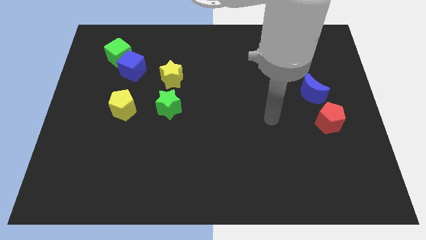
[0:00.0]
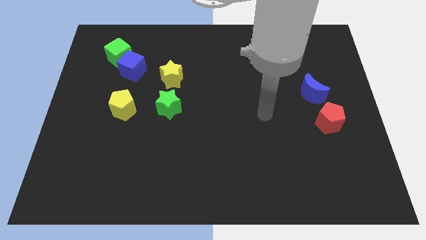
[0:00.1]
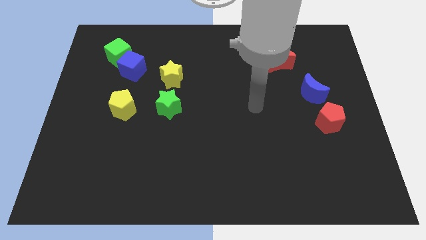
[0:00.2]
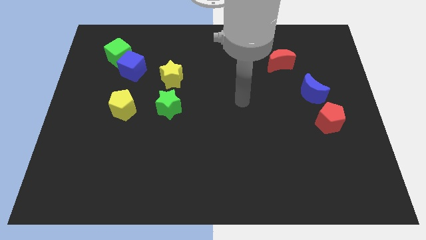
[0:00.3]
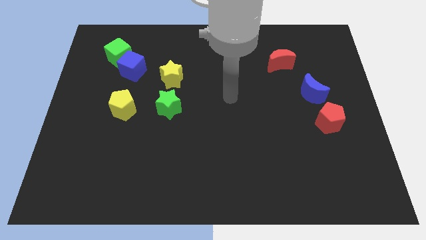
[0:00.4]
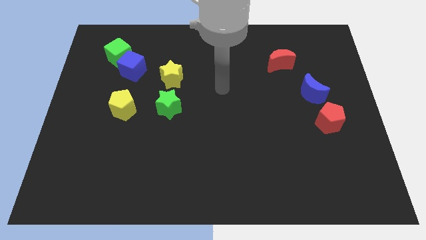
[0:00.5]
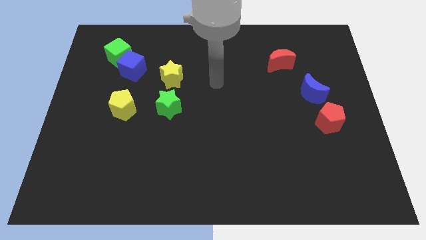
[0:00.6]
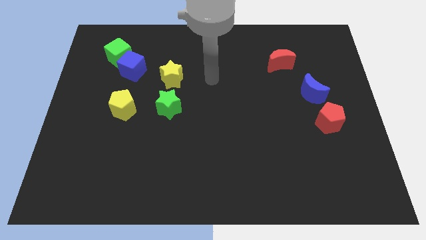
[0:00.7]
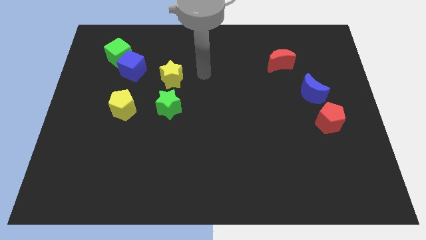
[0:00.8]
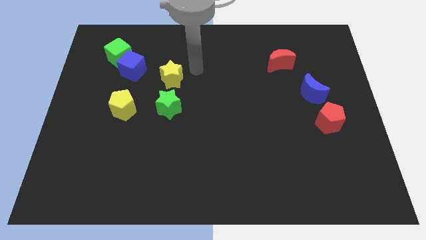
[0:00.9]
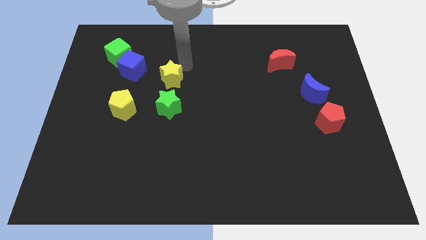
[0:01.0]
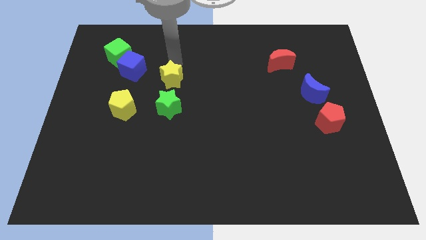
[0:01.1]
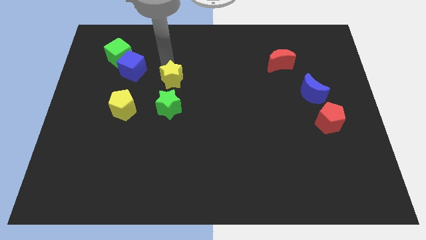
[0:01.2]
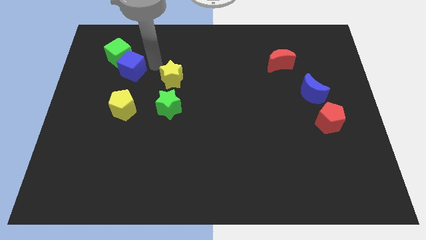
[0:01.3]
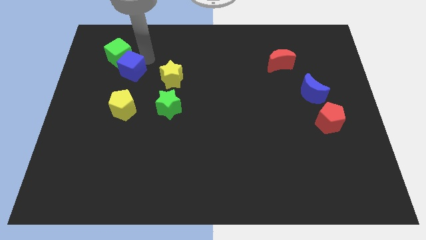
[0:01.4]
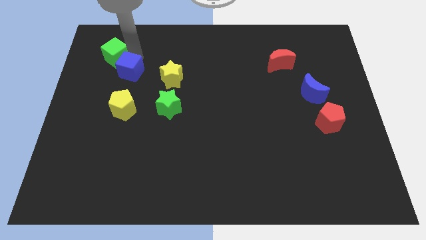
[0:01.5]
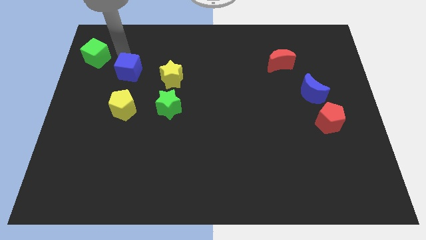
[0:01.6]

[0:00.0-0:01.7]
pull the blue cube apart from the green cube

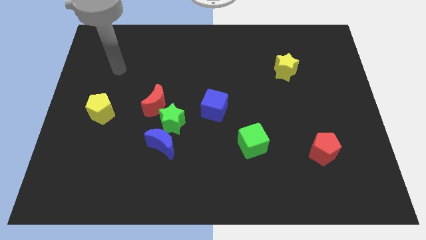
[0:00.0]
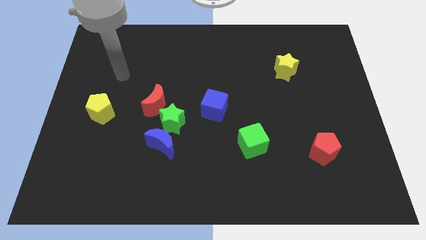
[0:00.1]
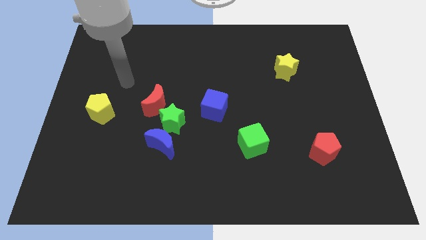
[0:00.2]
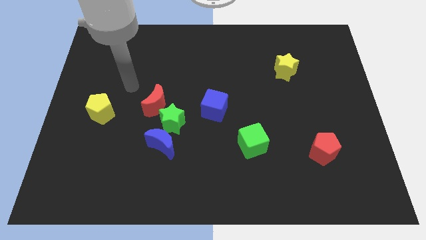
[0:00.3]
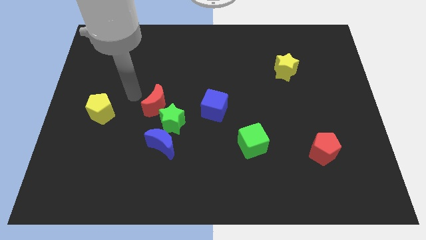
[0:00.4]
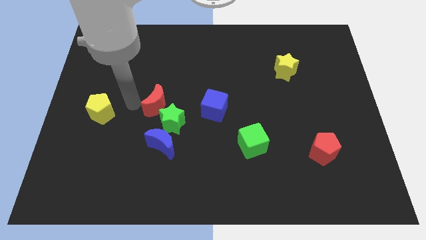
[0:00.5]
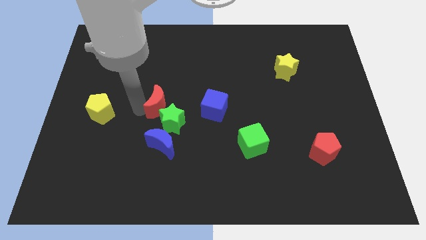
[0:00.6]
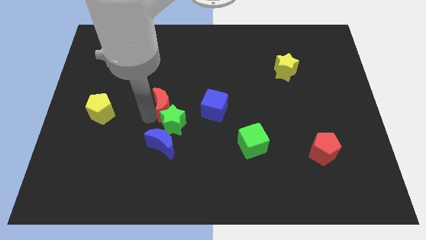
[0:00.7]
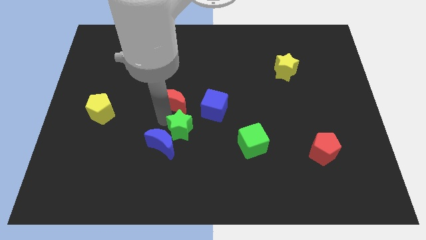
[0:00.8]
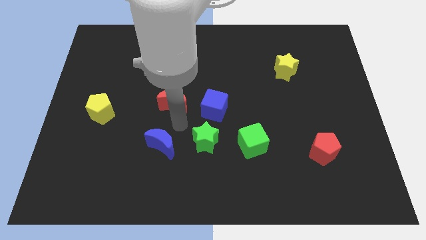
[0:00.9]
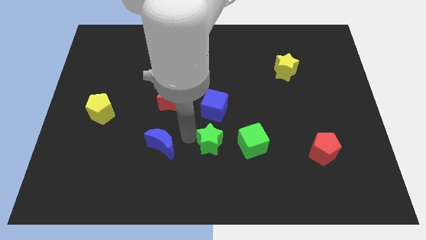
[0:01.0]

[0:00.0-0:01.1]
separate the blue moon from the green star

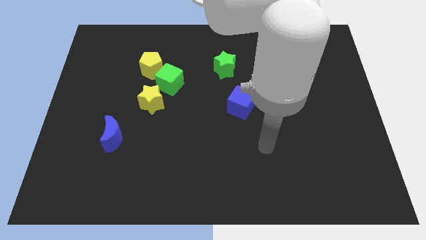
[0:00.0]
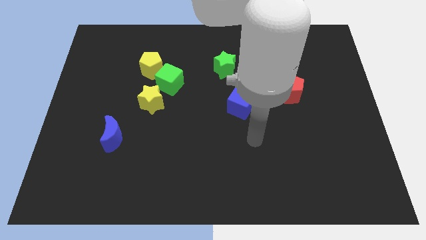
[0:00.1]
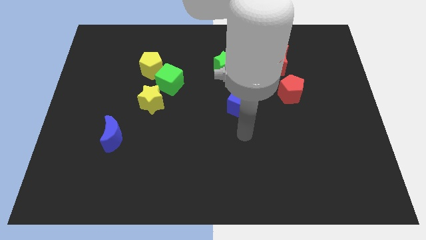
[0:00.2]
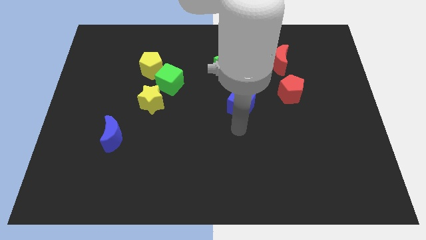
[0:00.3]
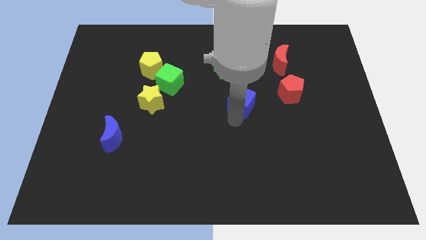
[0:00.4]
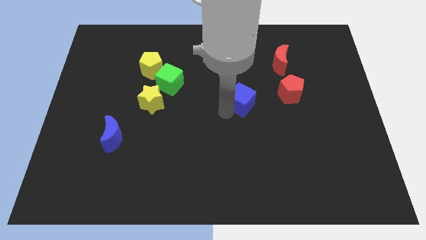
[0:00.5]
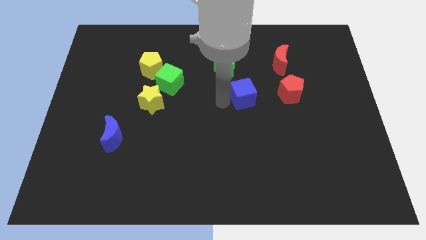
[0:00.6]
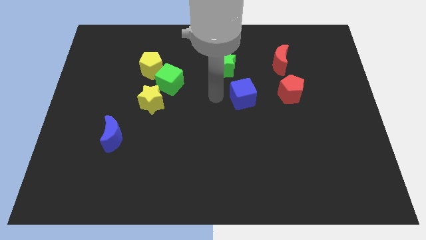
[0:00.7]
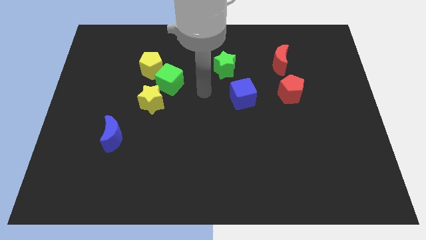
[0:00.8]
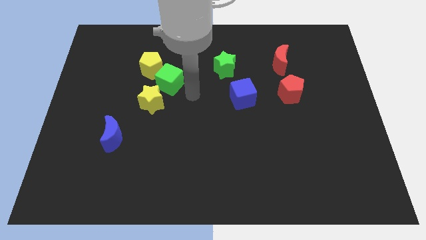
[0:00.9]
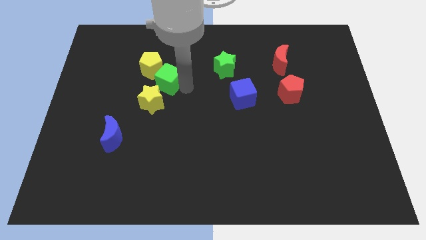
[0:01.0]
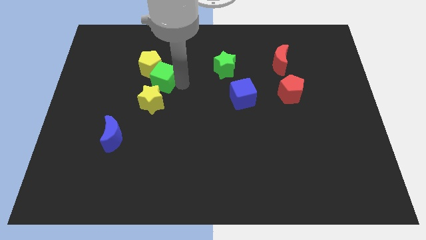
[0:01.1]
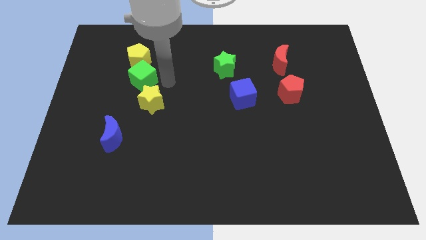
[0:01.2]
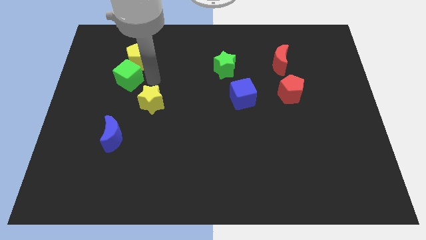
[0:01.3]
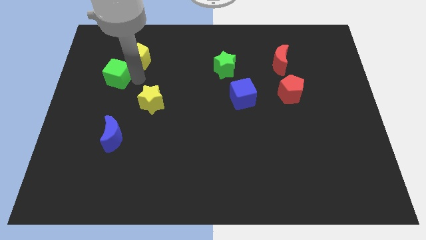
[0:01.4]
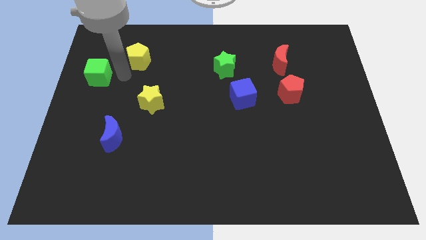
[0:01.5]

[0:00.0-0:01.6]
separate the yellow pentagon from the green cube

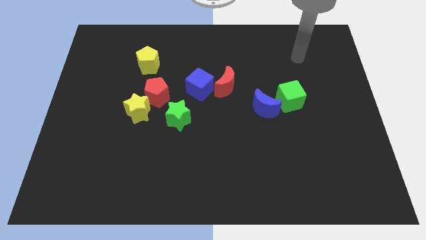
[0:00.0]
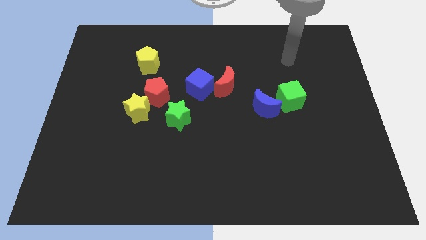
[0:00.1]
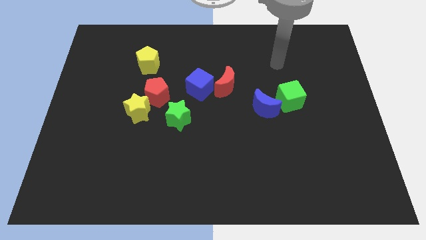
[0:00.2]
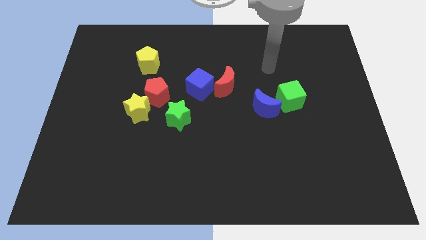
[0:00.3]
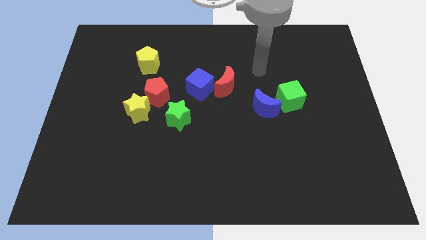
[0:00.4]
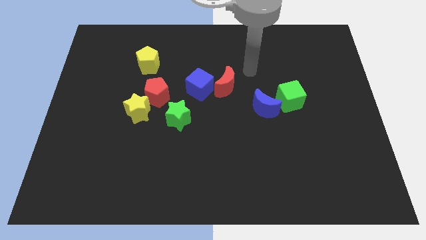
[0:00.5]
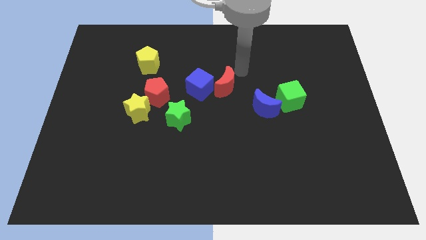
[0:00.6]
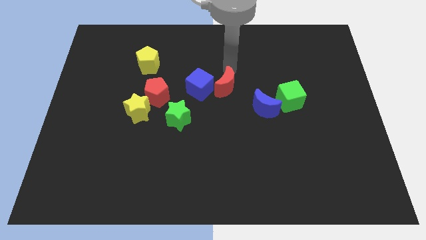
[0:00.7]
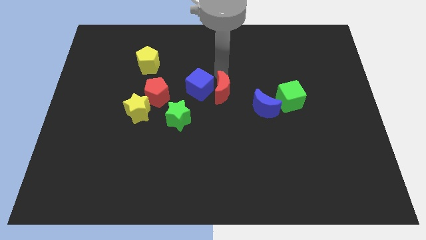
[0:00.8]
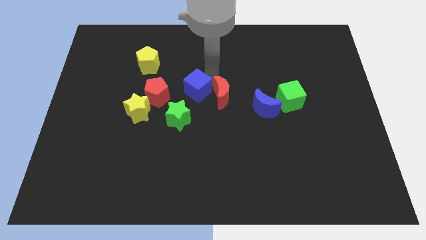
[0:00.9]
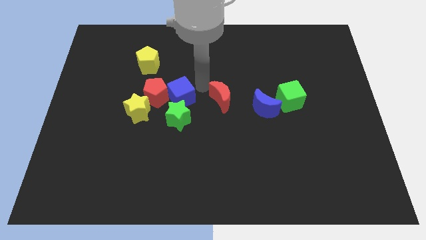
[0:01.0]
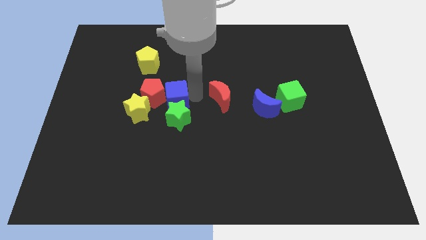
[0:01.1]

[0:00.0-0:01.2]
separate the red moon from the blue cube

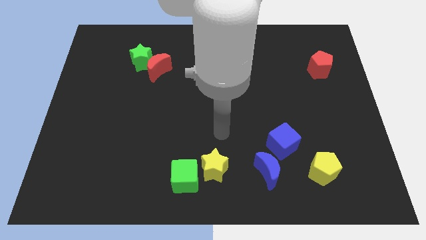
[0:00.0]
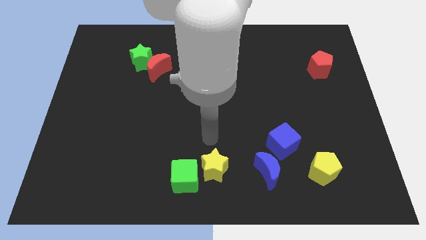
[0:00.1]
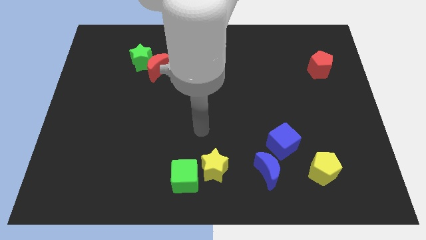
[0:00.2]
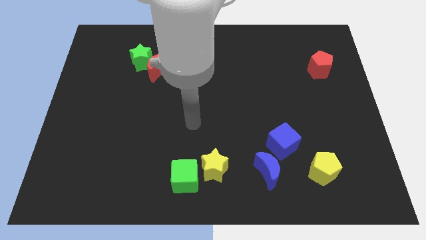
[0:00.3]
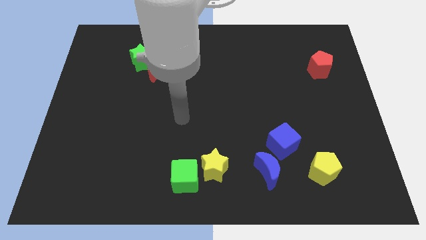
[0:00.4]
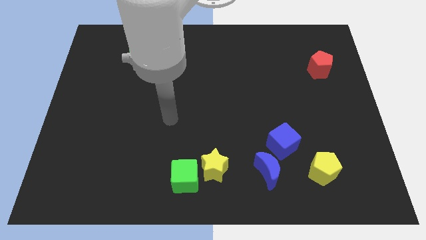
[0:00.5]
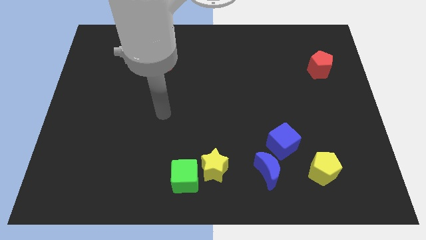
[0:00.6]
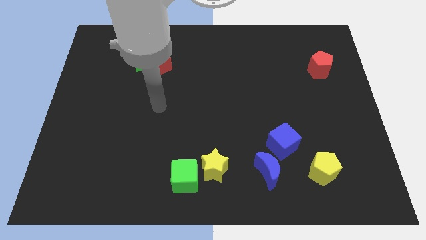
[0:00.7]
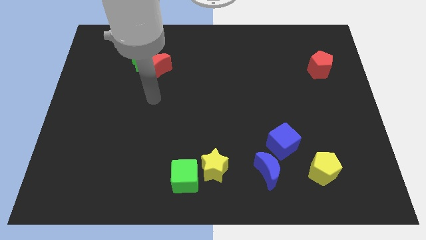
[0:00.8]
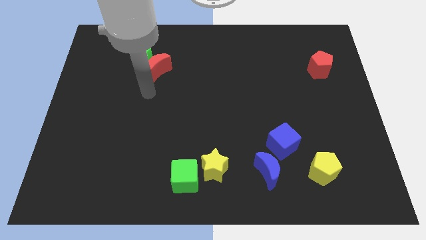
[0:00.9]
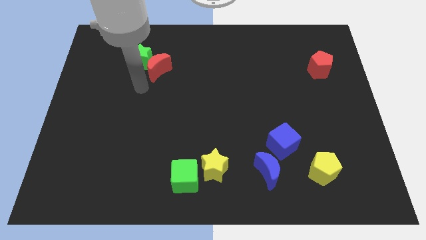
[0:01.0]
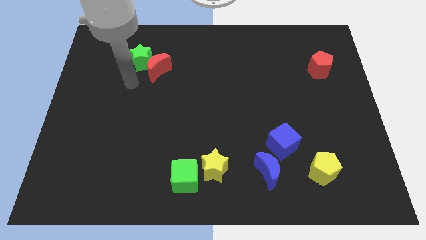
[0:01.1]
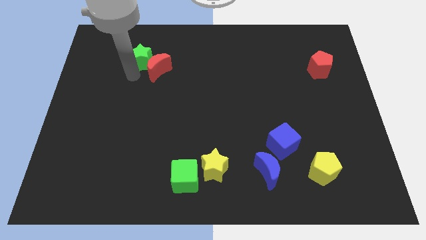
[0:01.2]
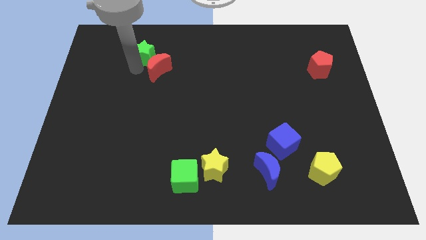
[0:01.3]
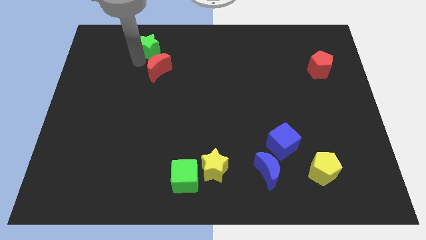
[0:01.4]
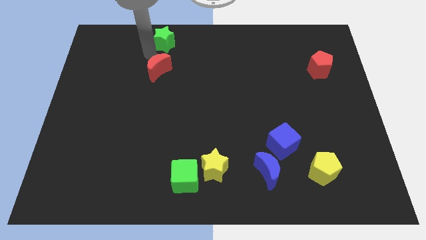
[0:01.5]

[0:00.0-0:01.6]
pull the red moon apart from the green star

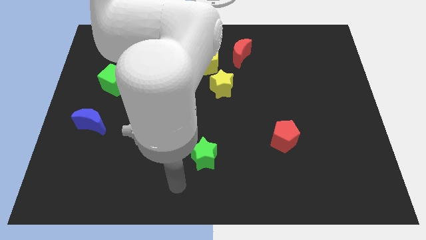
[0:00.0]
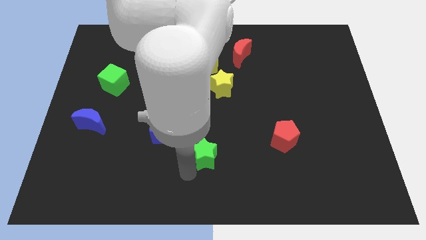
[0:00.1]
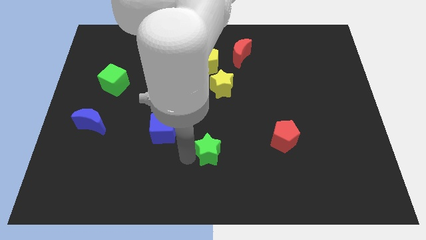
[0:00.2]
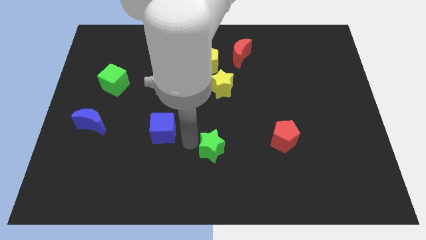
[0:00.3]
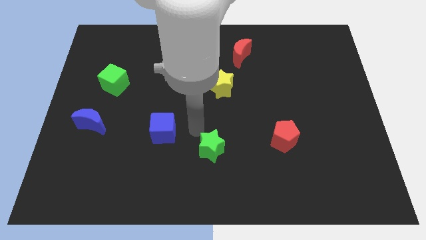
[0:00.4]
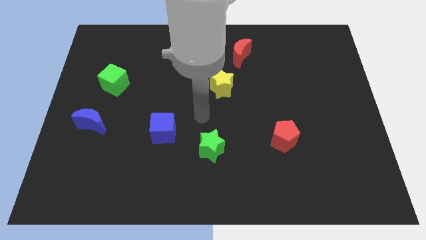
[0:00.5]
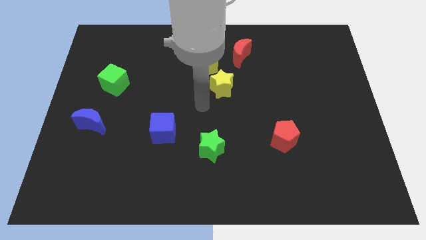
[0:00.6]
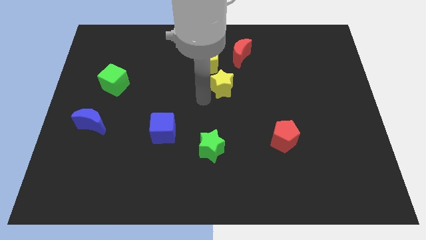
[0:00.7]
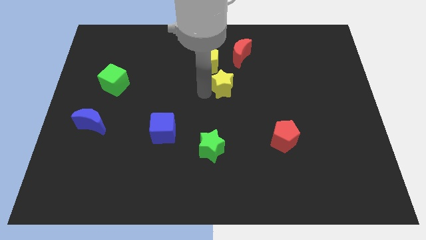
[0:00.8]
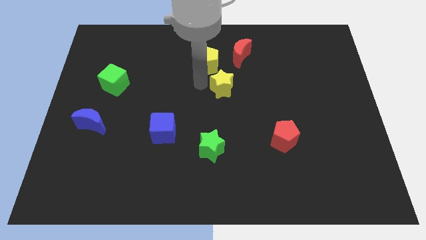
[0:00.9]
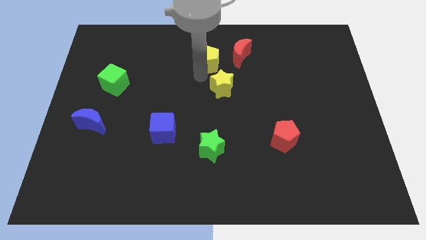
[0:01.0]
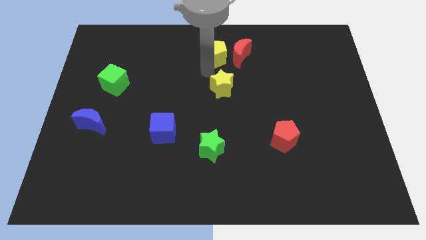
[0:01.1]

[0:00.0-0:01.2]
separate the yellow star from the yellow pentagon

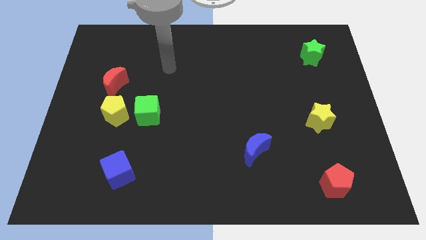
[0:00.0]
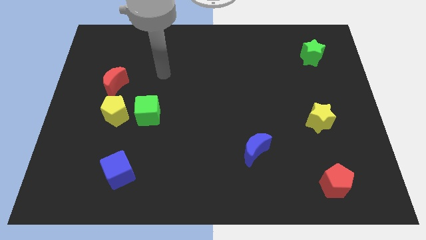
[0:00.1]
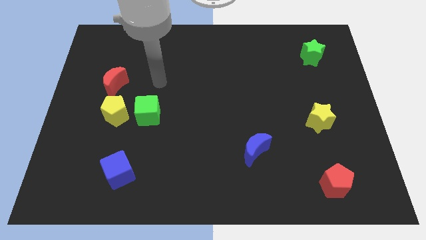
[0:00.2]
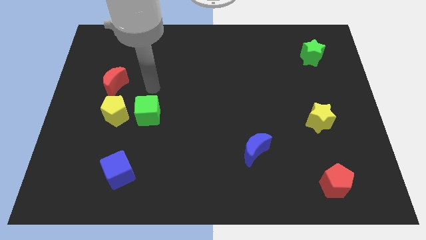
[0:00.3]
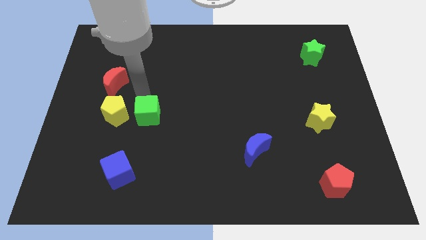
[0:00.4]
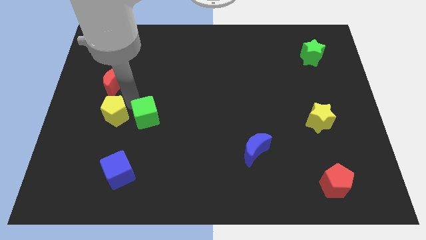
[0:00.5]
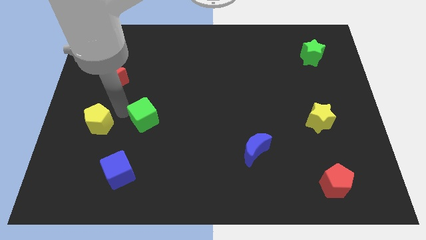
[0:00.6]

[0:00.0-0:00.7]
separate the green cube from the yellow pentagon

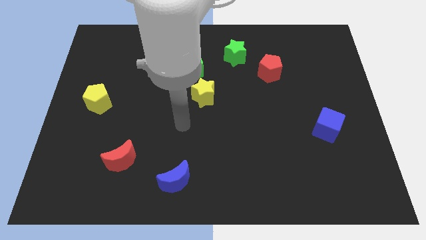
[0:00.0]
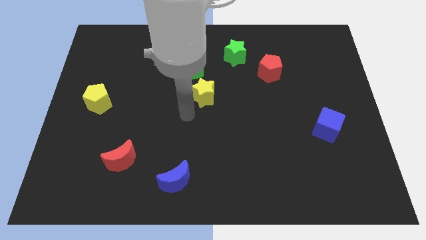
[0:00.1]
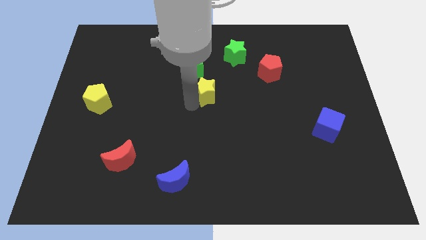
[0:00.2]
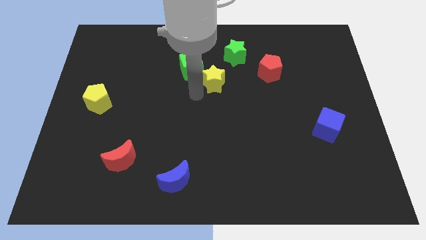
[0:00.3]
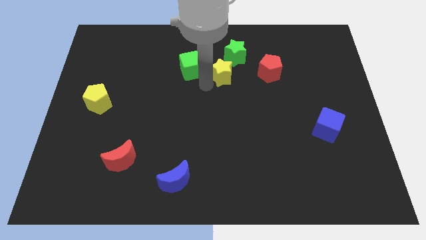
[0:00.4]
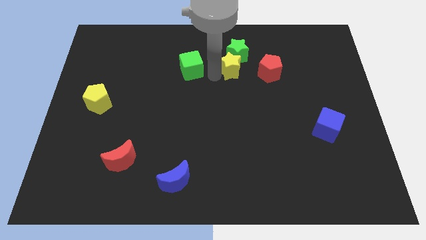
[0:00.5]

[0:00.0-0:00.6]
separate the green cube from the yellow star
